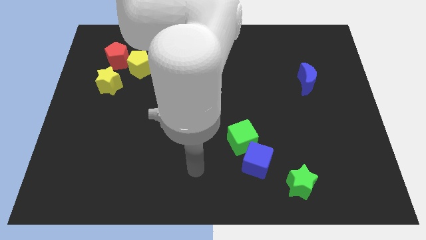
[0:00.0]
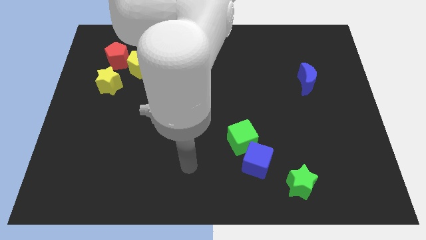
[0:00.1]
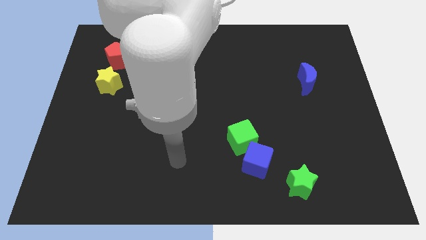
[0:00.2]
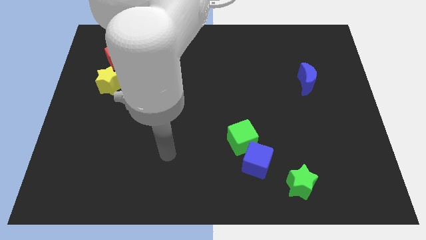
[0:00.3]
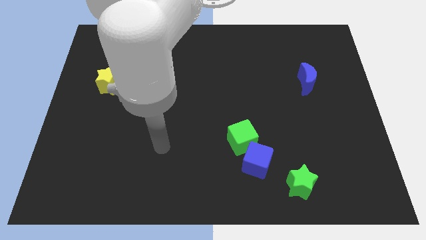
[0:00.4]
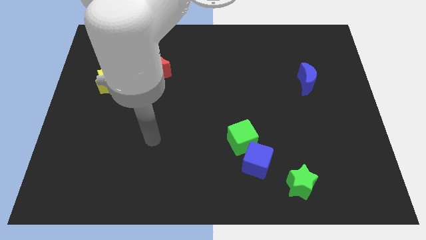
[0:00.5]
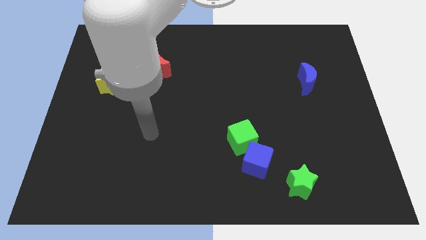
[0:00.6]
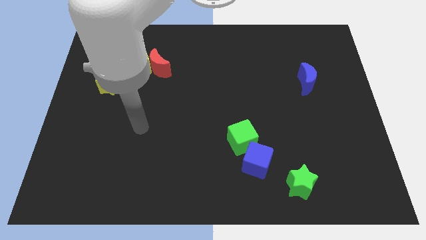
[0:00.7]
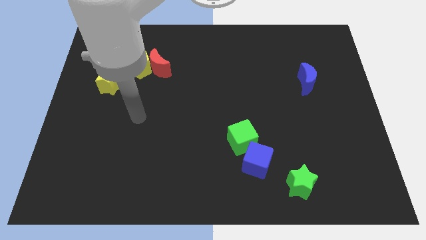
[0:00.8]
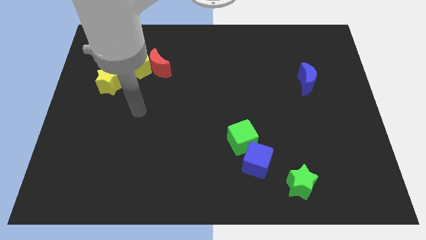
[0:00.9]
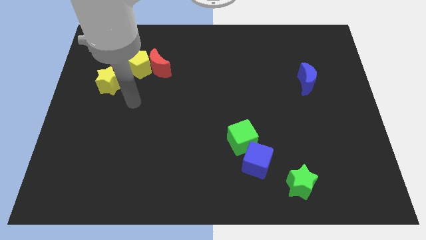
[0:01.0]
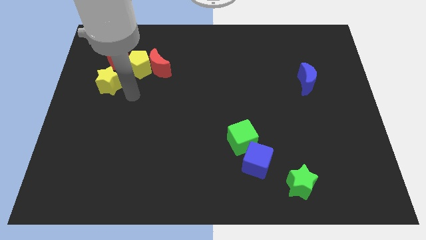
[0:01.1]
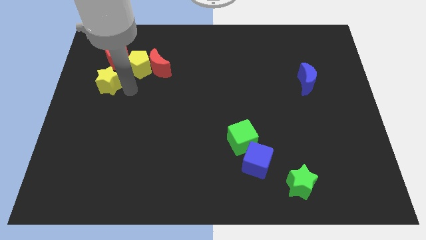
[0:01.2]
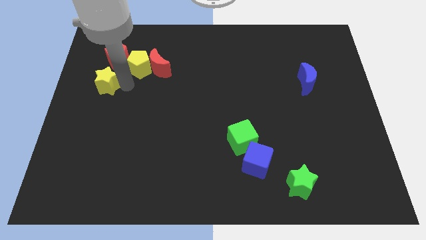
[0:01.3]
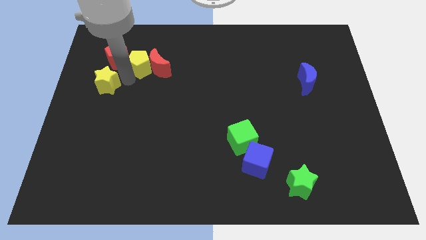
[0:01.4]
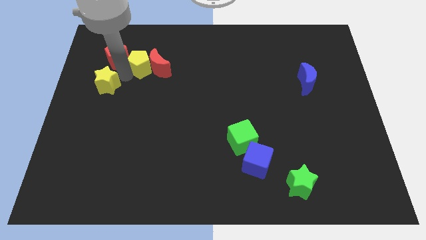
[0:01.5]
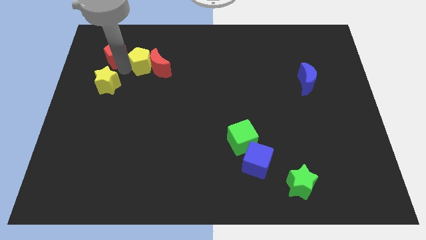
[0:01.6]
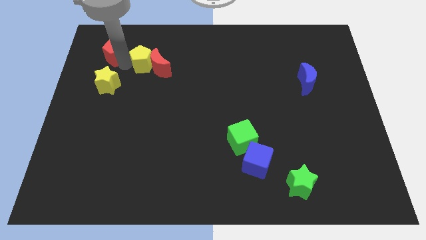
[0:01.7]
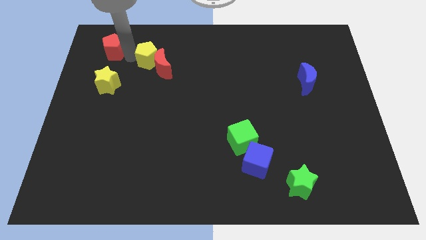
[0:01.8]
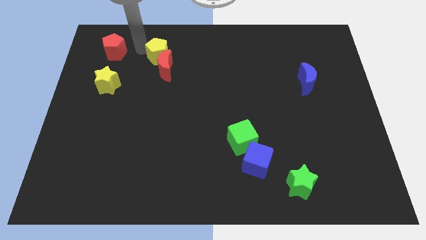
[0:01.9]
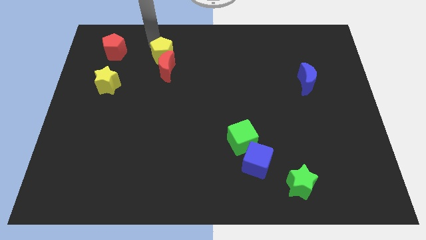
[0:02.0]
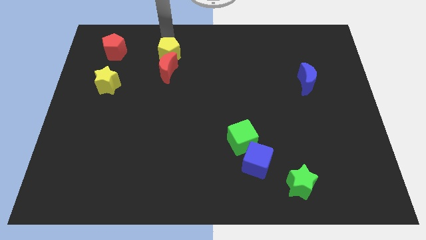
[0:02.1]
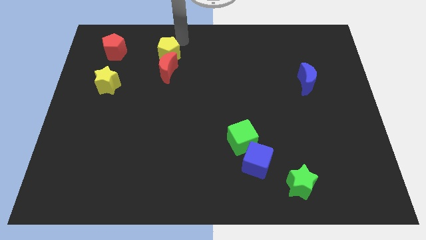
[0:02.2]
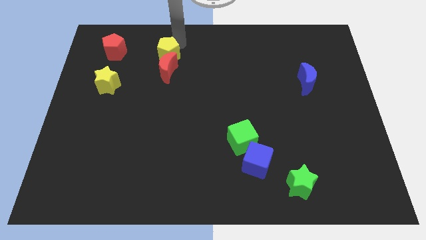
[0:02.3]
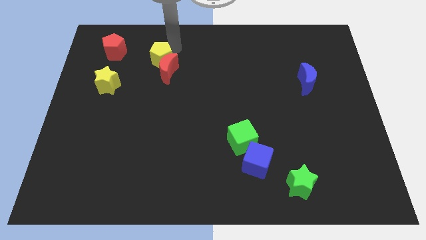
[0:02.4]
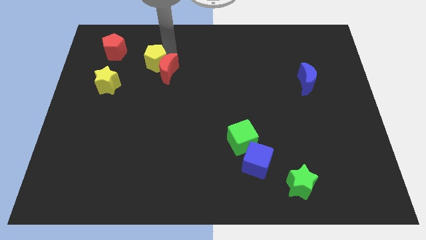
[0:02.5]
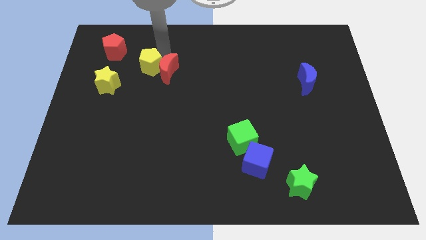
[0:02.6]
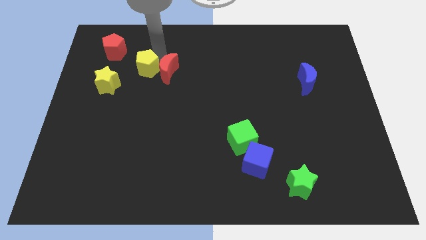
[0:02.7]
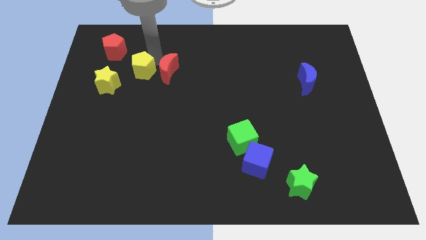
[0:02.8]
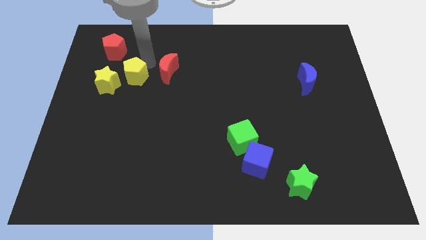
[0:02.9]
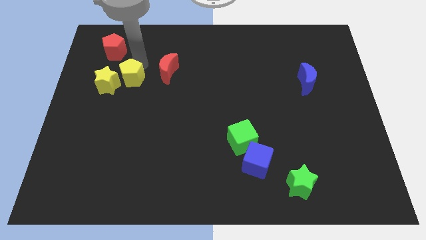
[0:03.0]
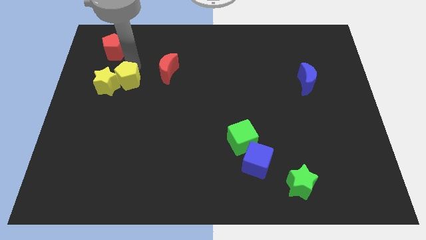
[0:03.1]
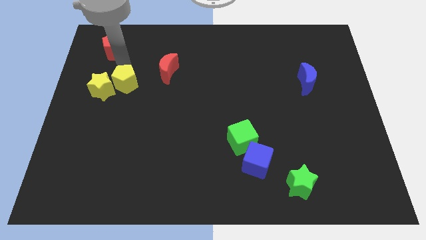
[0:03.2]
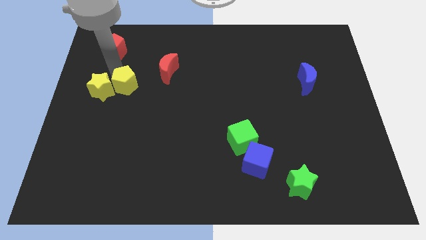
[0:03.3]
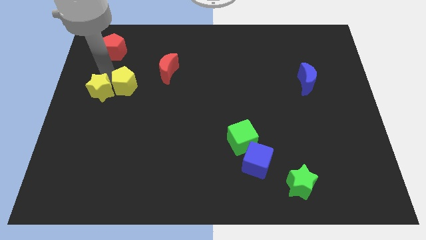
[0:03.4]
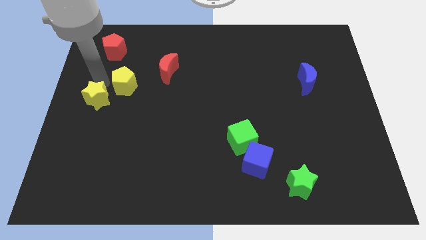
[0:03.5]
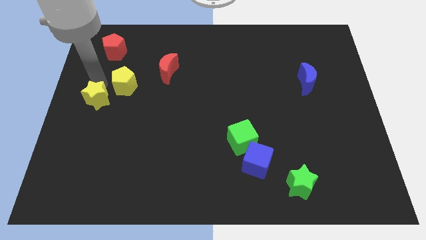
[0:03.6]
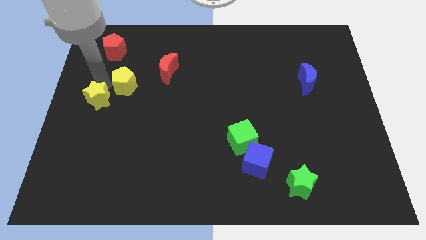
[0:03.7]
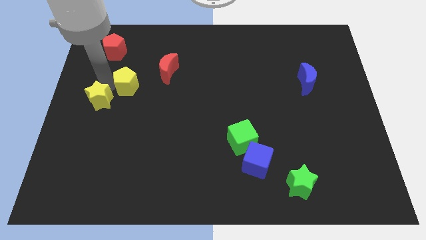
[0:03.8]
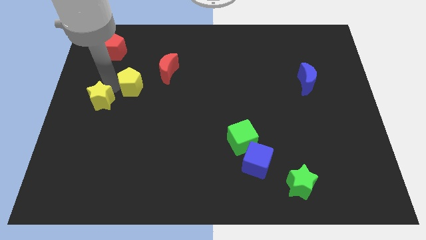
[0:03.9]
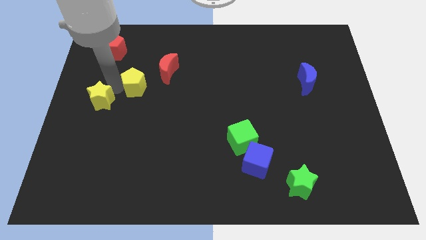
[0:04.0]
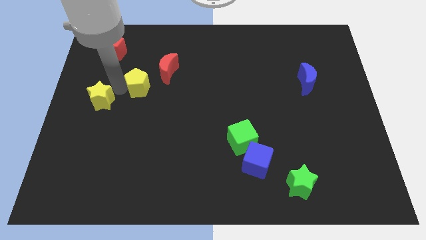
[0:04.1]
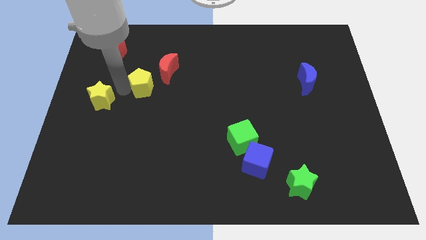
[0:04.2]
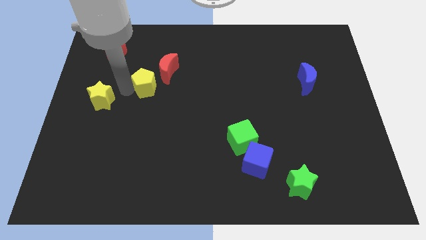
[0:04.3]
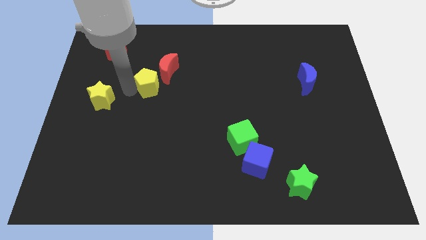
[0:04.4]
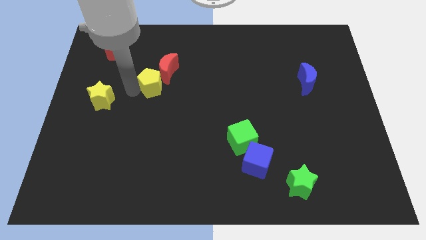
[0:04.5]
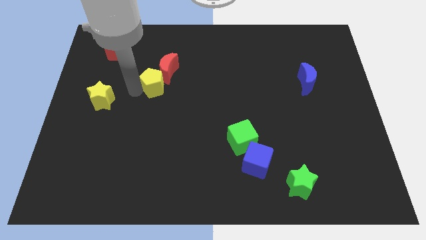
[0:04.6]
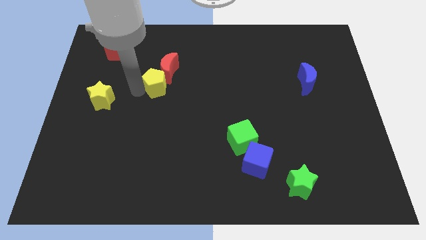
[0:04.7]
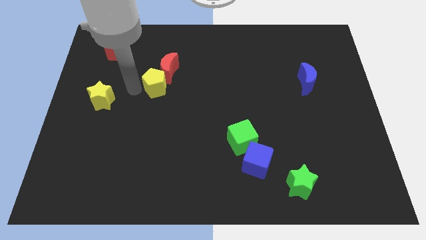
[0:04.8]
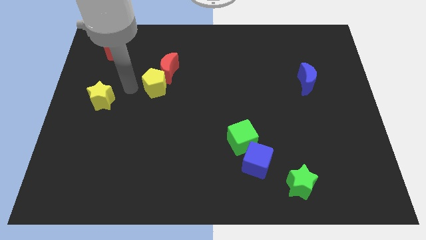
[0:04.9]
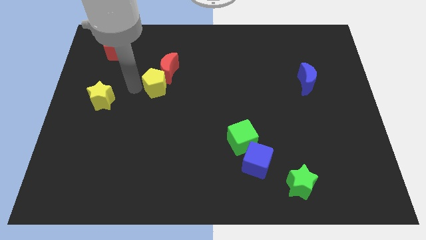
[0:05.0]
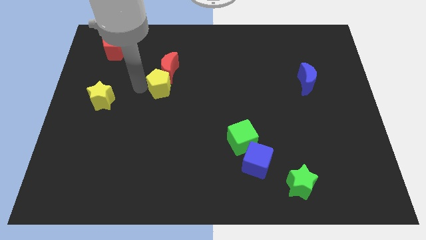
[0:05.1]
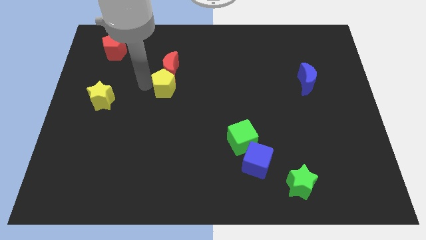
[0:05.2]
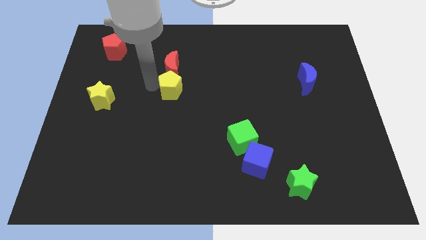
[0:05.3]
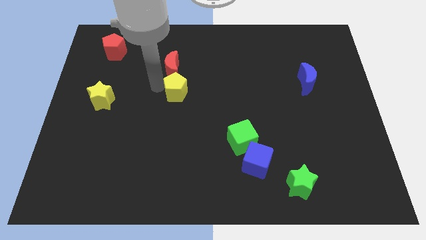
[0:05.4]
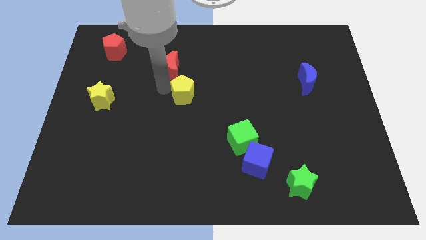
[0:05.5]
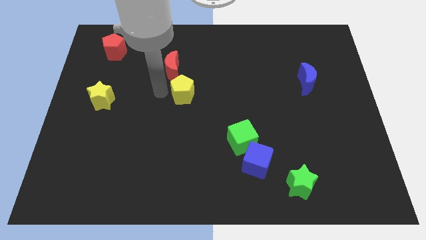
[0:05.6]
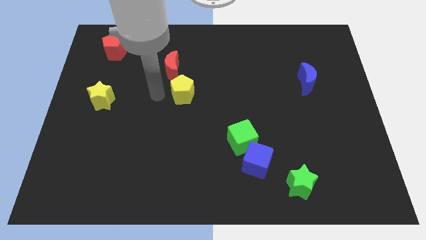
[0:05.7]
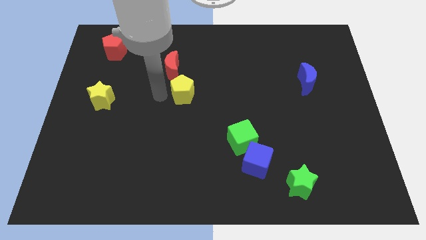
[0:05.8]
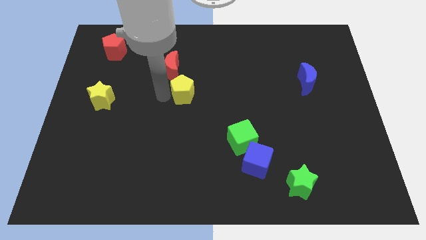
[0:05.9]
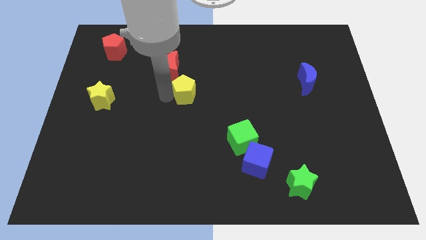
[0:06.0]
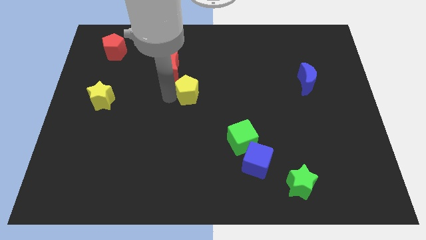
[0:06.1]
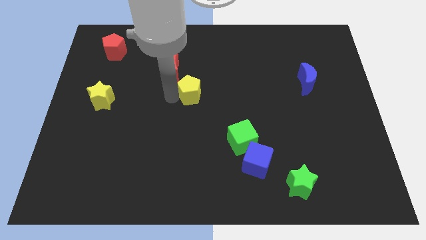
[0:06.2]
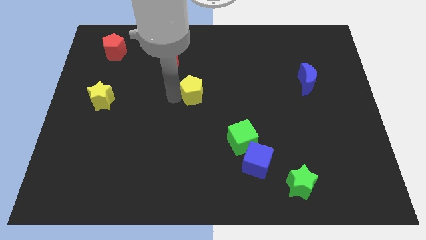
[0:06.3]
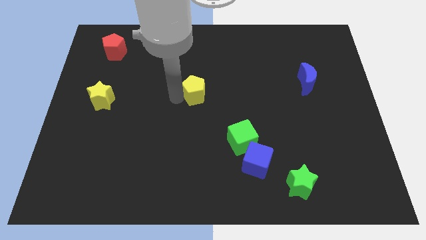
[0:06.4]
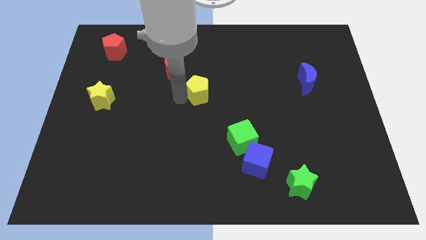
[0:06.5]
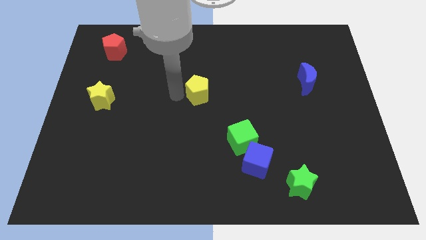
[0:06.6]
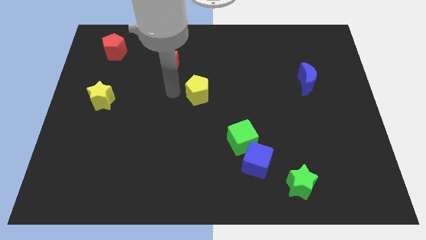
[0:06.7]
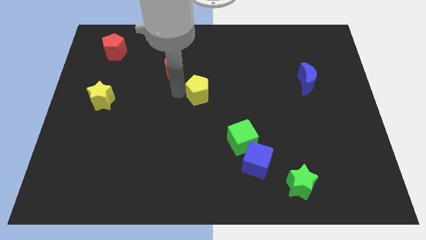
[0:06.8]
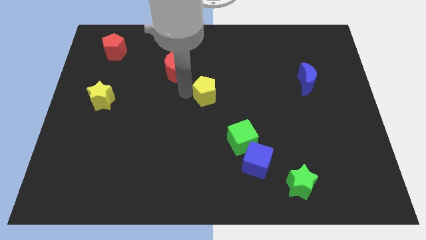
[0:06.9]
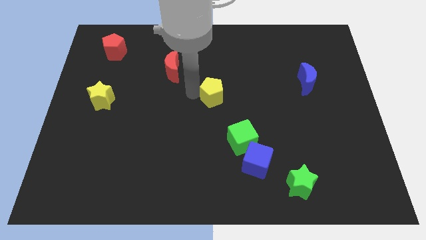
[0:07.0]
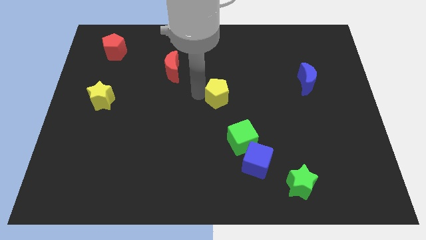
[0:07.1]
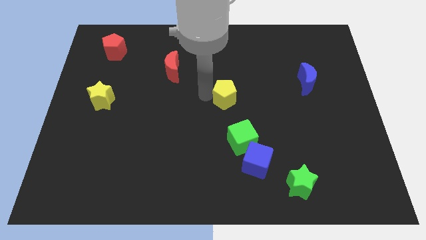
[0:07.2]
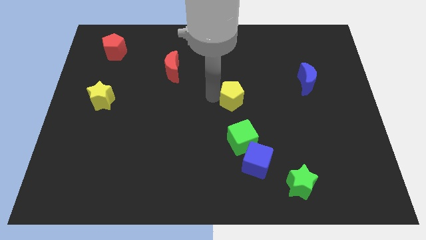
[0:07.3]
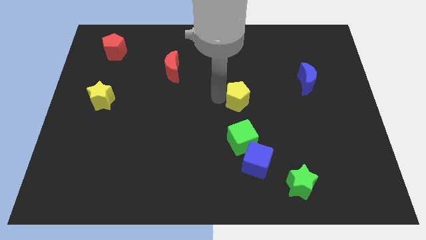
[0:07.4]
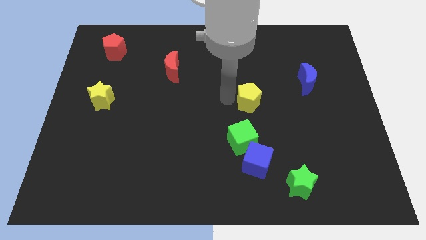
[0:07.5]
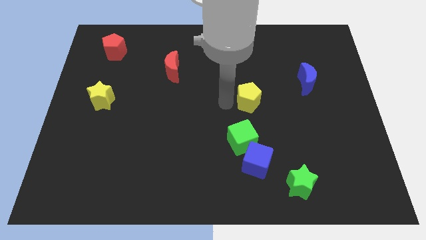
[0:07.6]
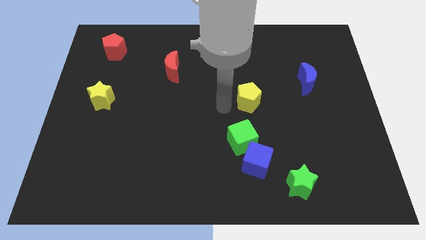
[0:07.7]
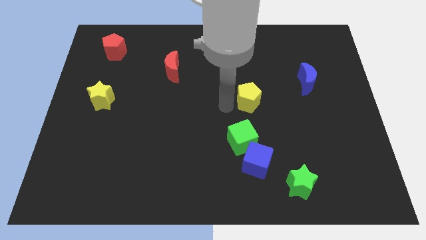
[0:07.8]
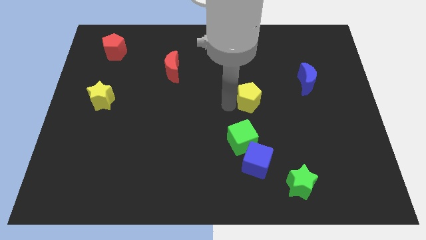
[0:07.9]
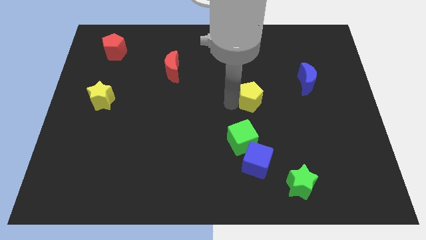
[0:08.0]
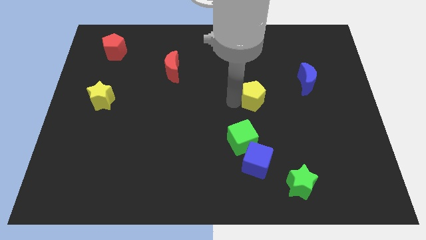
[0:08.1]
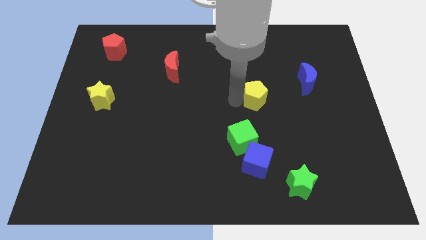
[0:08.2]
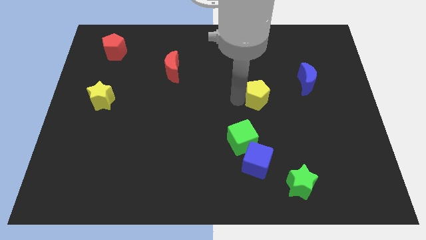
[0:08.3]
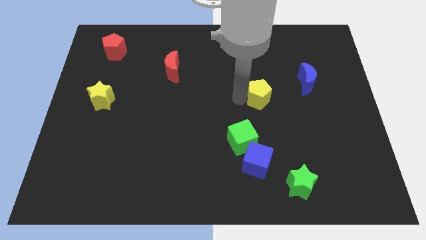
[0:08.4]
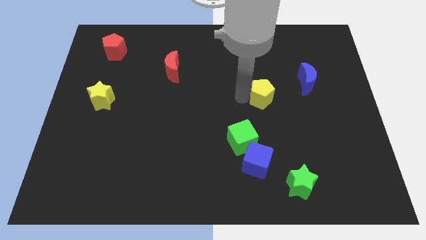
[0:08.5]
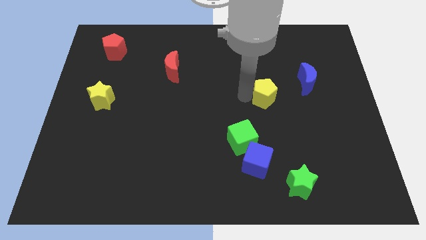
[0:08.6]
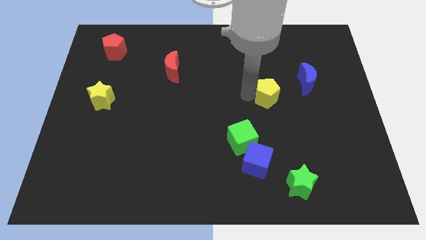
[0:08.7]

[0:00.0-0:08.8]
put the yellow pentagon to the bottom left side of the blue moon
